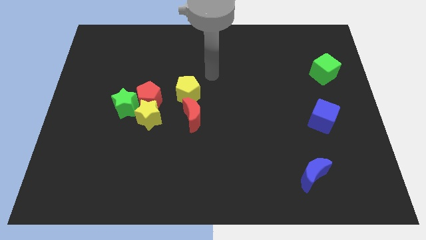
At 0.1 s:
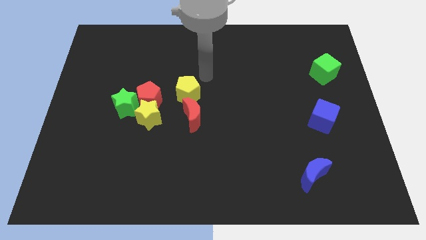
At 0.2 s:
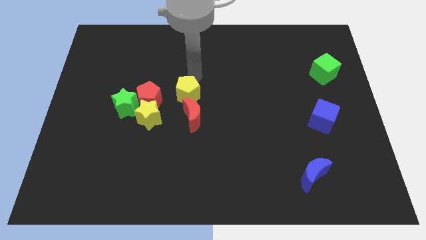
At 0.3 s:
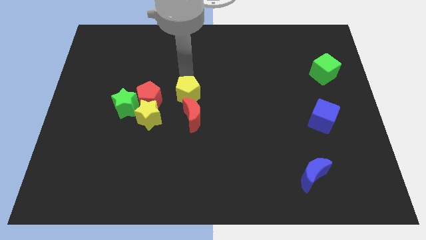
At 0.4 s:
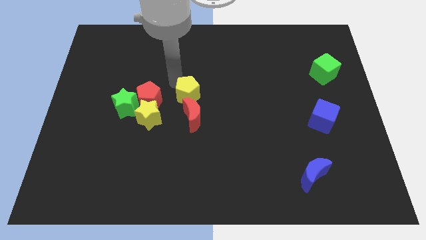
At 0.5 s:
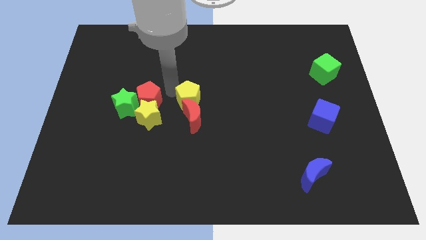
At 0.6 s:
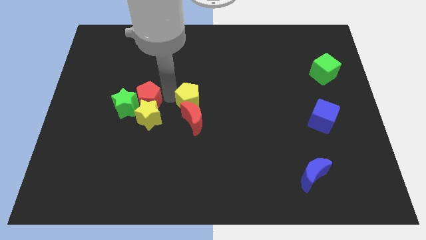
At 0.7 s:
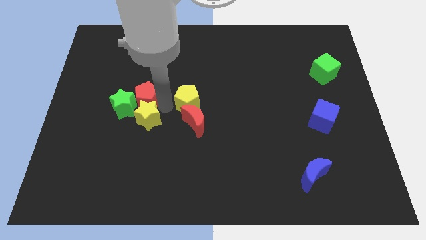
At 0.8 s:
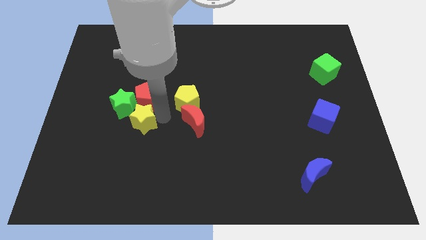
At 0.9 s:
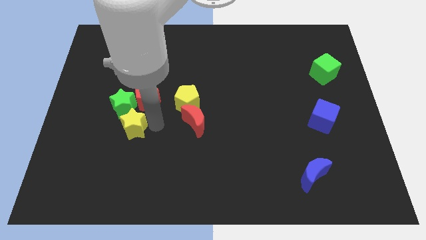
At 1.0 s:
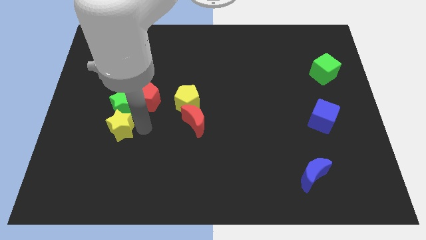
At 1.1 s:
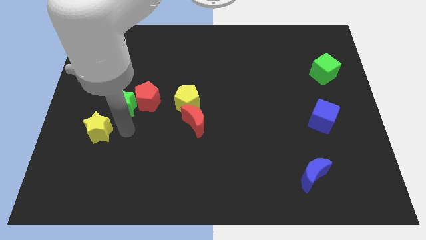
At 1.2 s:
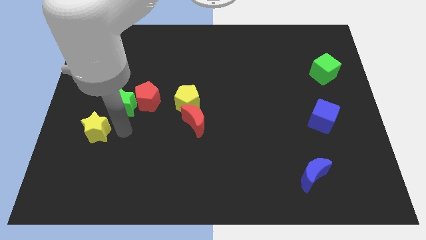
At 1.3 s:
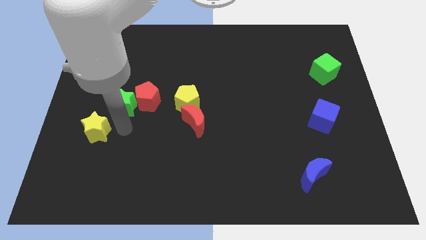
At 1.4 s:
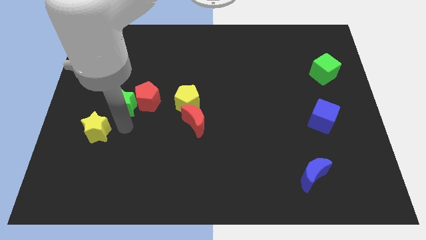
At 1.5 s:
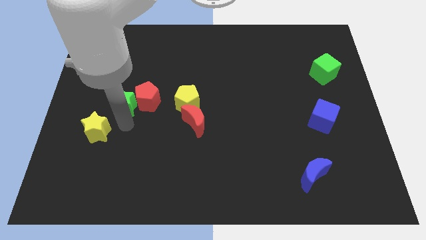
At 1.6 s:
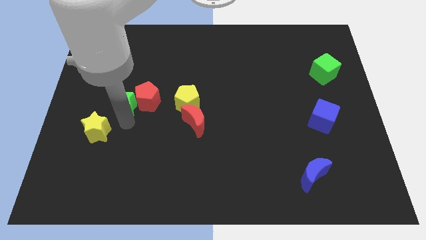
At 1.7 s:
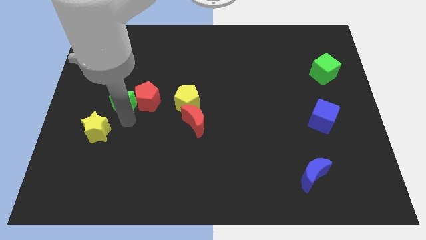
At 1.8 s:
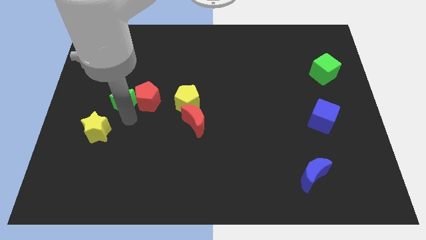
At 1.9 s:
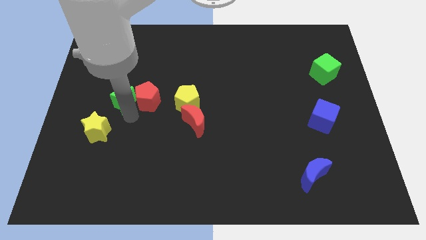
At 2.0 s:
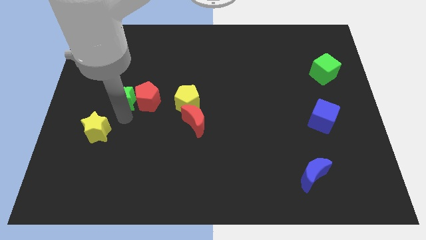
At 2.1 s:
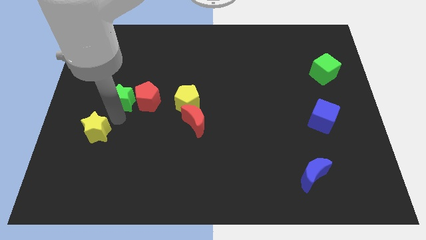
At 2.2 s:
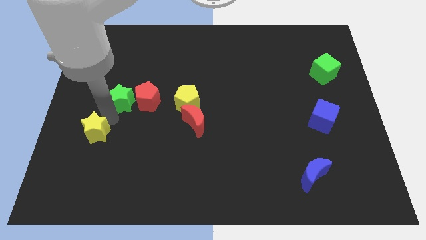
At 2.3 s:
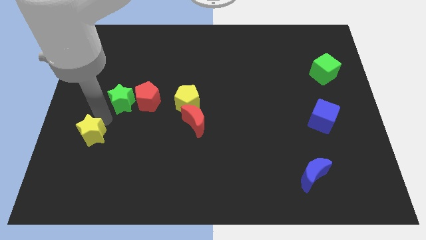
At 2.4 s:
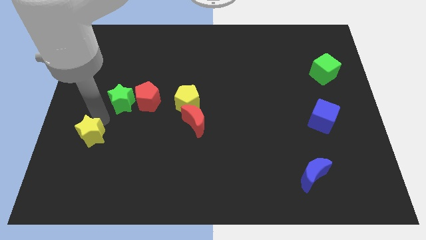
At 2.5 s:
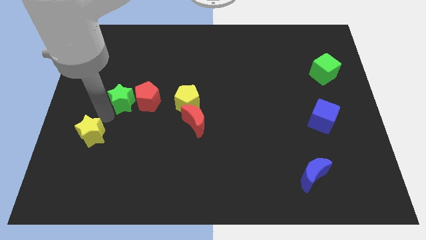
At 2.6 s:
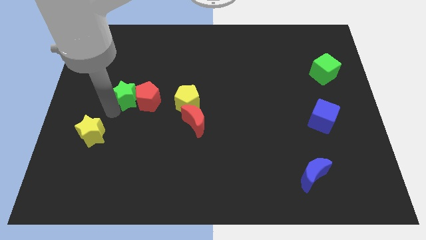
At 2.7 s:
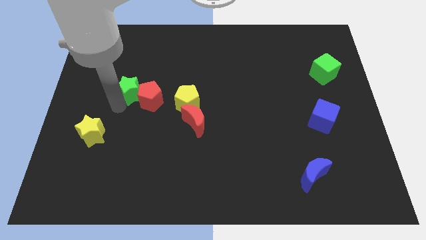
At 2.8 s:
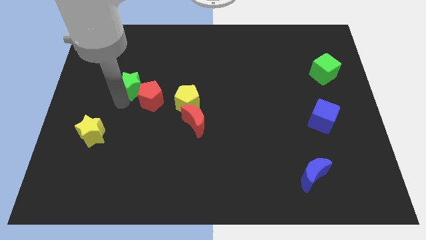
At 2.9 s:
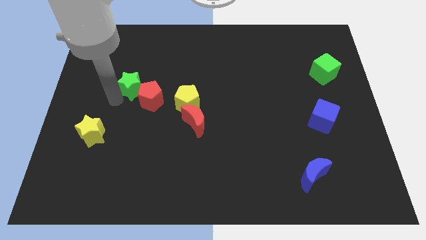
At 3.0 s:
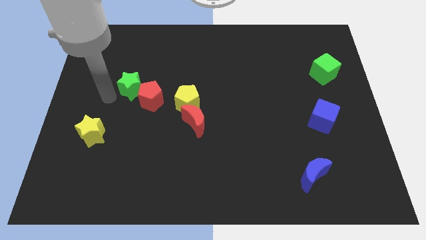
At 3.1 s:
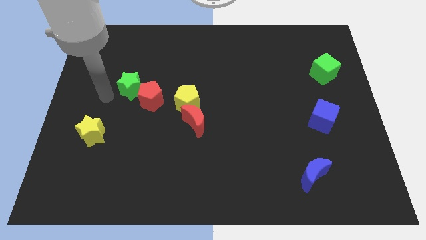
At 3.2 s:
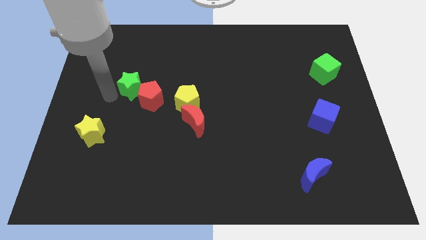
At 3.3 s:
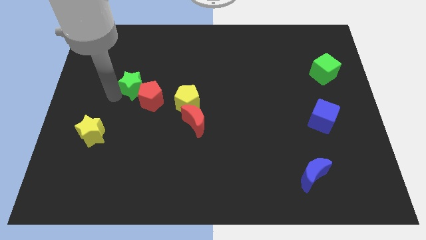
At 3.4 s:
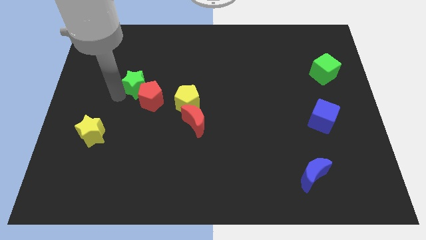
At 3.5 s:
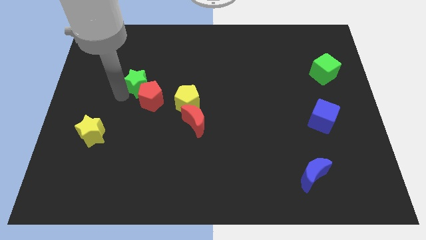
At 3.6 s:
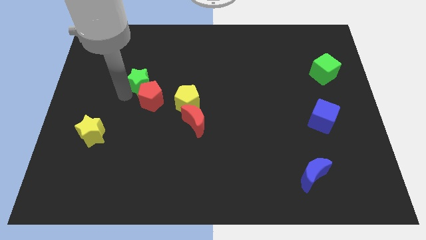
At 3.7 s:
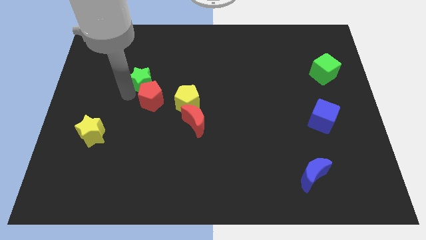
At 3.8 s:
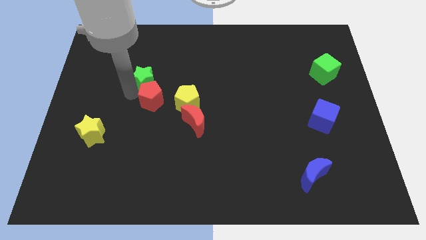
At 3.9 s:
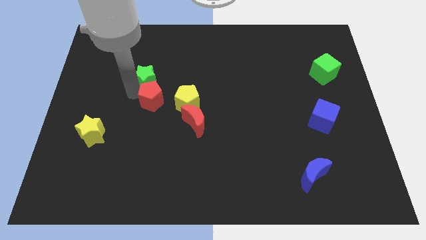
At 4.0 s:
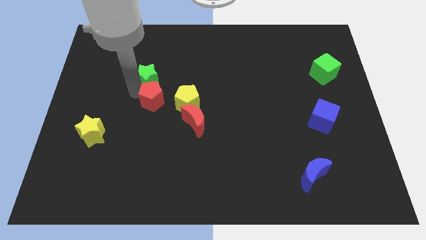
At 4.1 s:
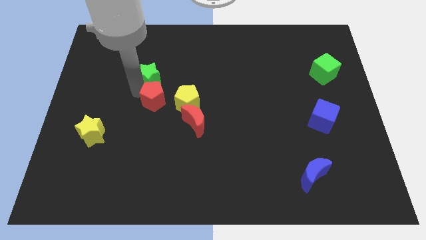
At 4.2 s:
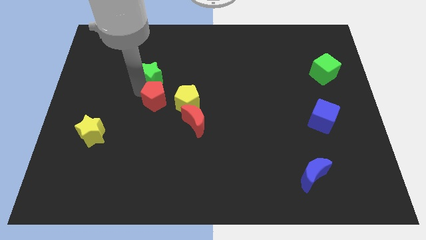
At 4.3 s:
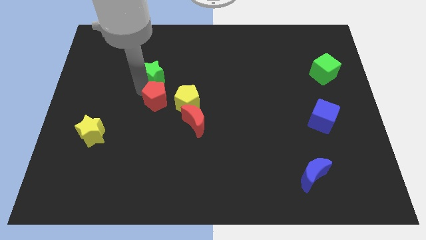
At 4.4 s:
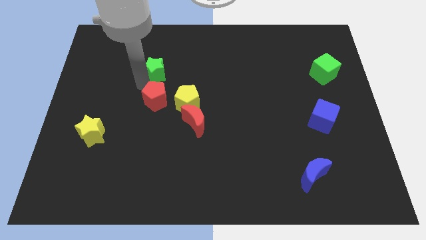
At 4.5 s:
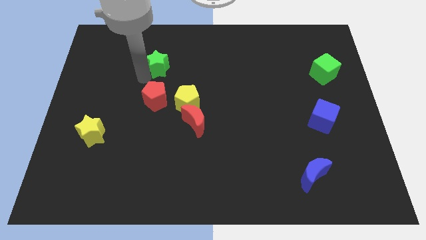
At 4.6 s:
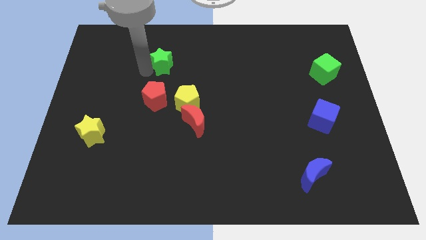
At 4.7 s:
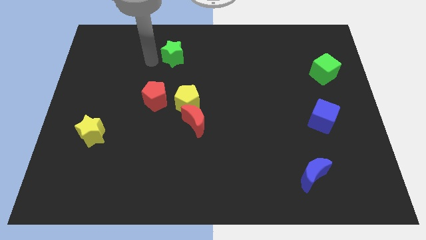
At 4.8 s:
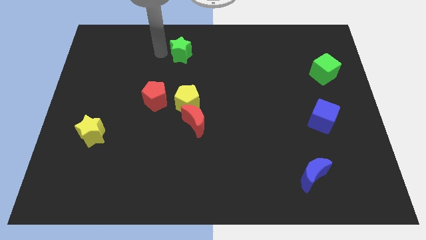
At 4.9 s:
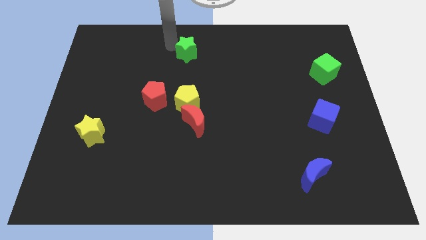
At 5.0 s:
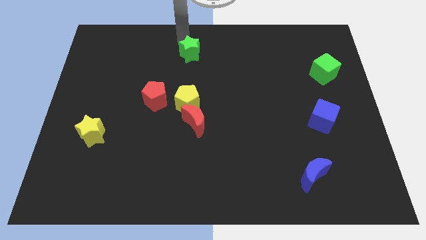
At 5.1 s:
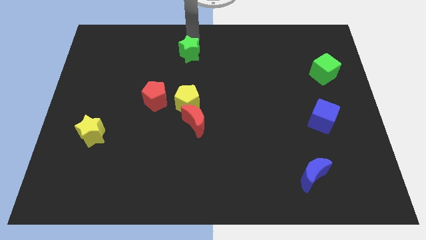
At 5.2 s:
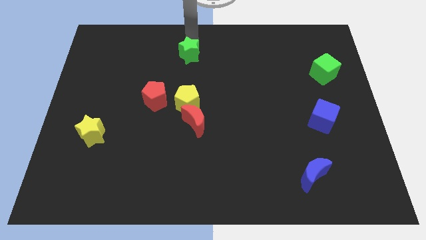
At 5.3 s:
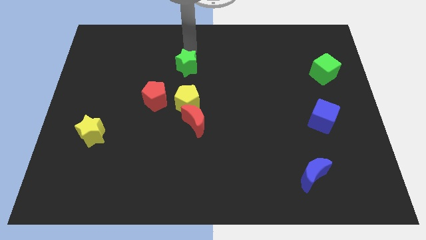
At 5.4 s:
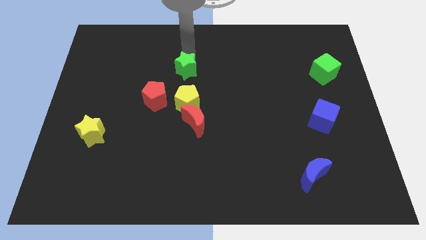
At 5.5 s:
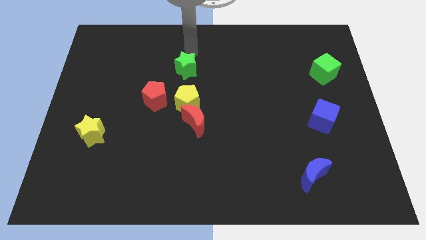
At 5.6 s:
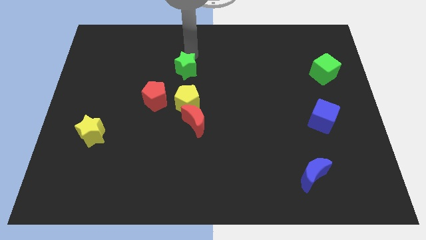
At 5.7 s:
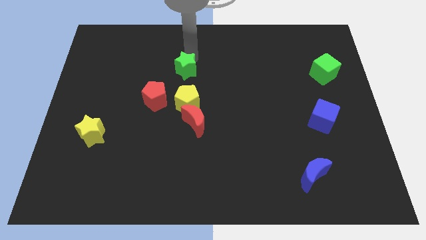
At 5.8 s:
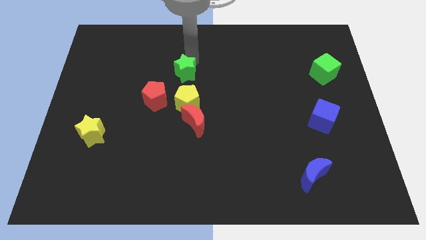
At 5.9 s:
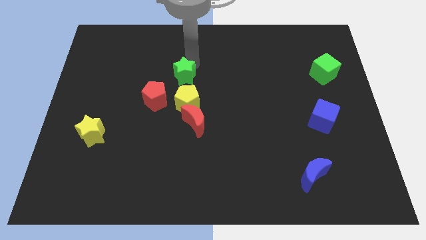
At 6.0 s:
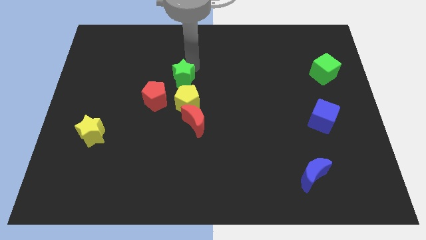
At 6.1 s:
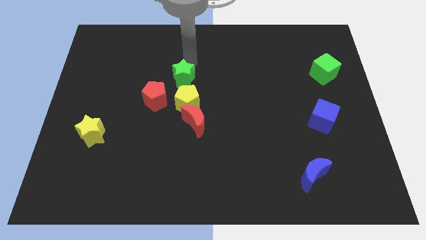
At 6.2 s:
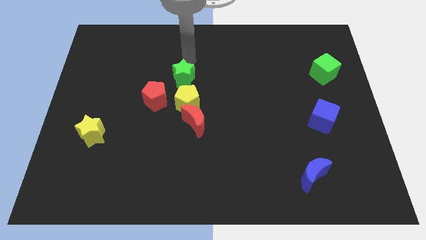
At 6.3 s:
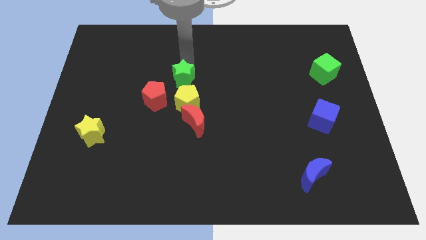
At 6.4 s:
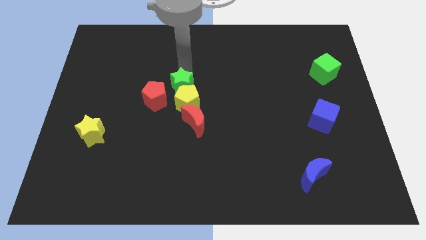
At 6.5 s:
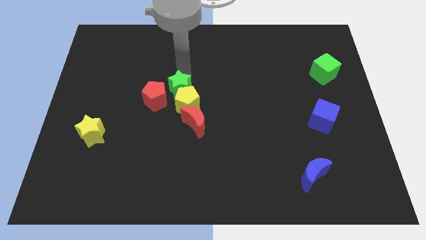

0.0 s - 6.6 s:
slide the green star diagonally up and to the left of the red moon

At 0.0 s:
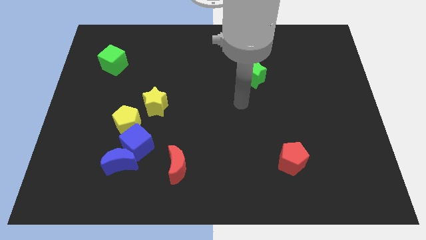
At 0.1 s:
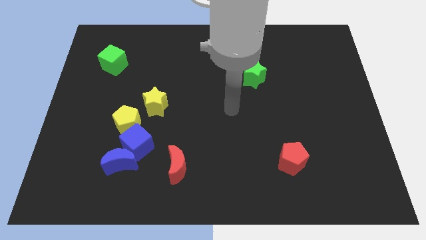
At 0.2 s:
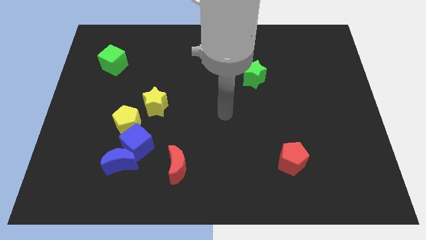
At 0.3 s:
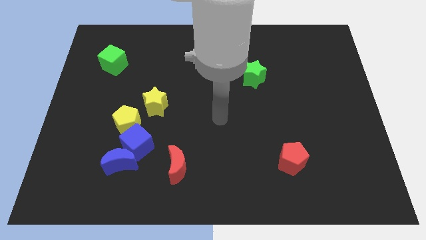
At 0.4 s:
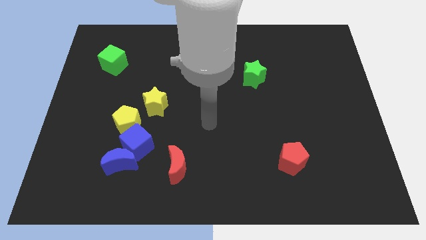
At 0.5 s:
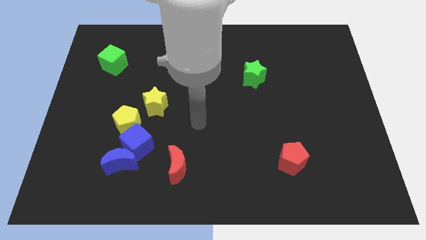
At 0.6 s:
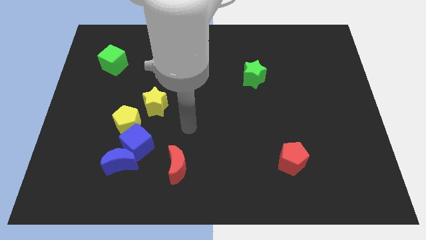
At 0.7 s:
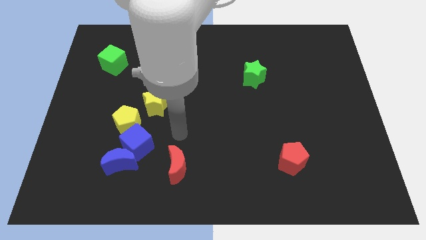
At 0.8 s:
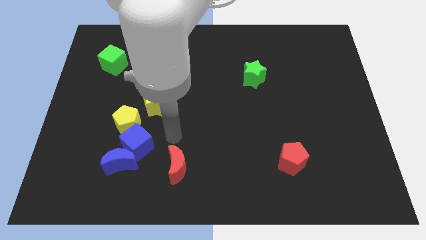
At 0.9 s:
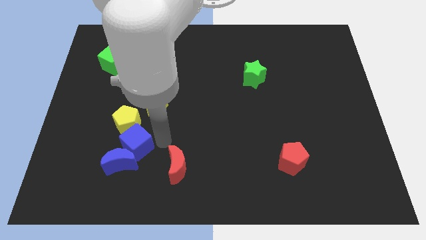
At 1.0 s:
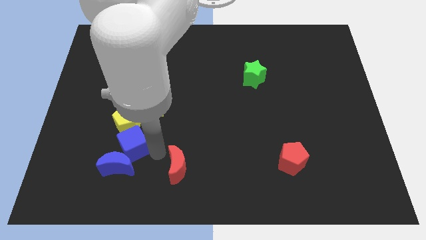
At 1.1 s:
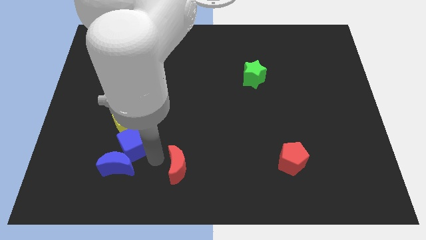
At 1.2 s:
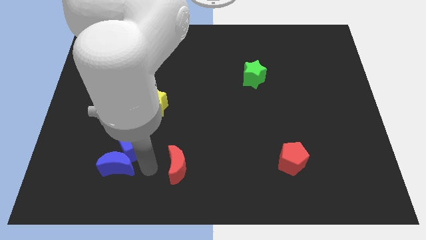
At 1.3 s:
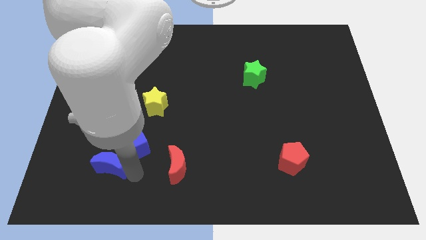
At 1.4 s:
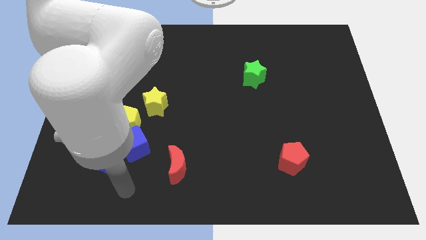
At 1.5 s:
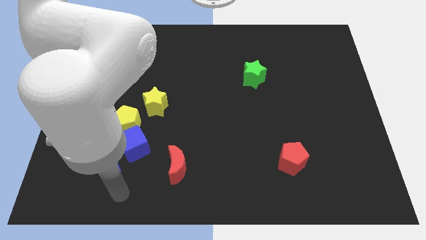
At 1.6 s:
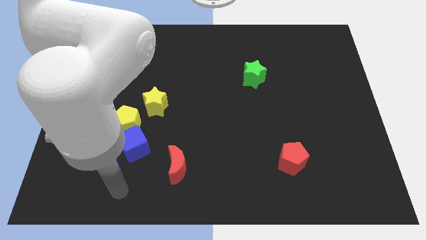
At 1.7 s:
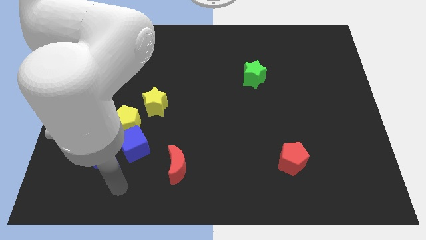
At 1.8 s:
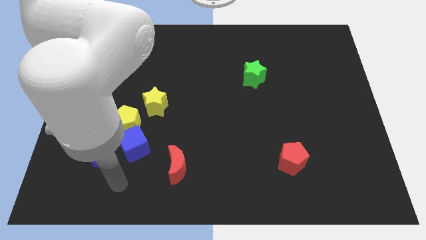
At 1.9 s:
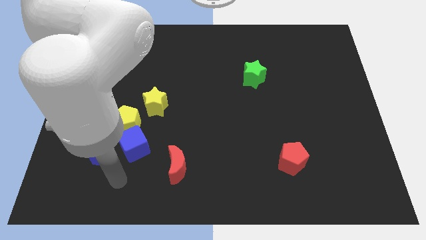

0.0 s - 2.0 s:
put the blue moon diagonally down and to the left of the yellow pentagon
